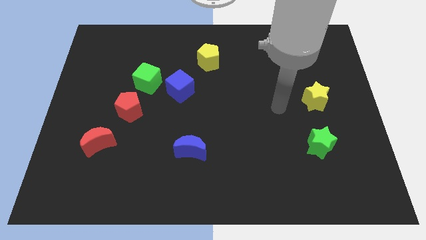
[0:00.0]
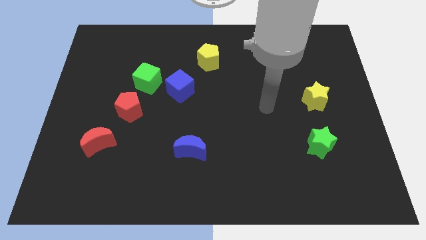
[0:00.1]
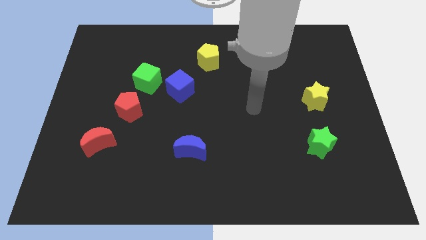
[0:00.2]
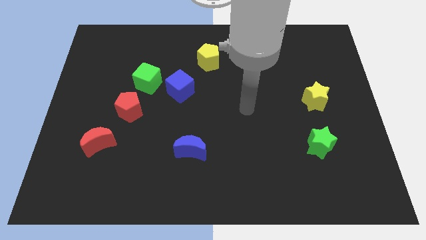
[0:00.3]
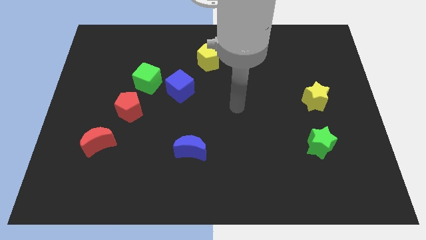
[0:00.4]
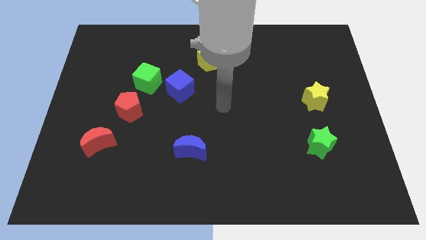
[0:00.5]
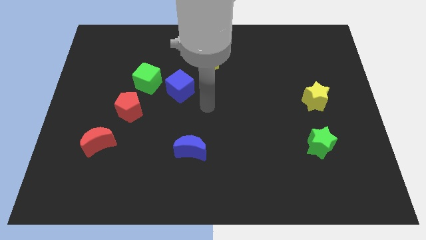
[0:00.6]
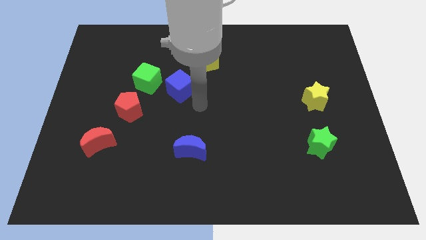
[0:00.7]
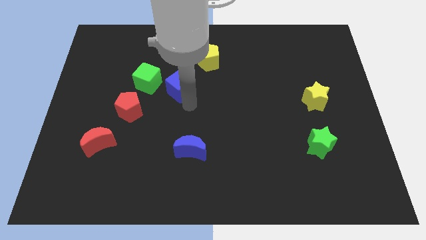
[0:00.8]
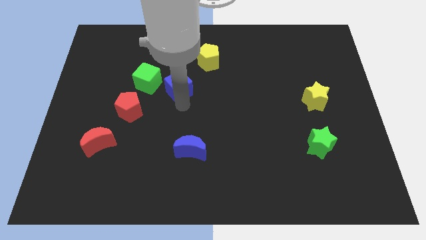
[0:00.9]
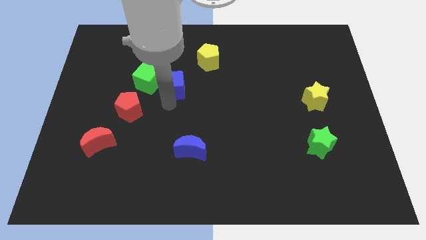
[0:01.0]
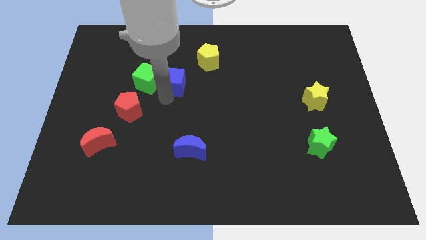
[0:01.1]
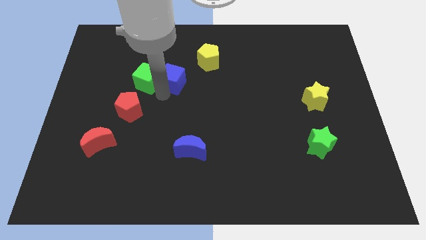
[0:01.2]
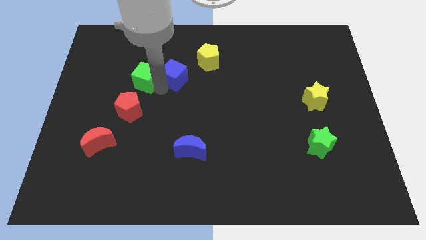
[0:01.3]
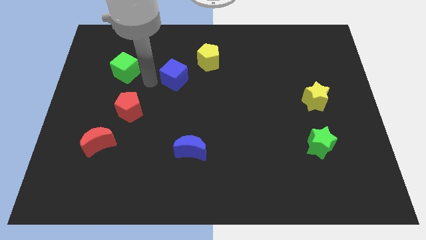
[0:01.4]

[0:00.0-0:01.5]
separate the blue cube from the green cube

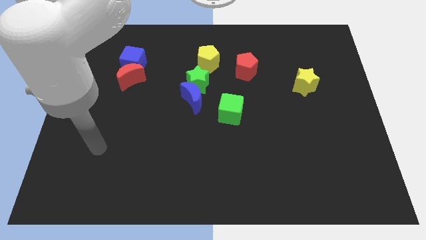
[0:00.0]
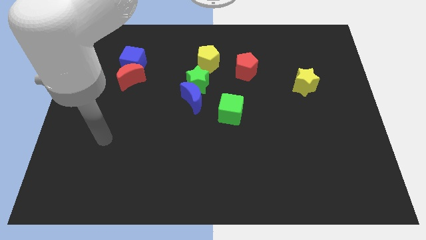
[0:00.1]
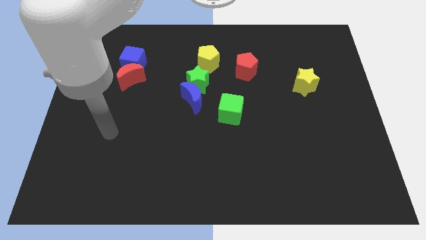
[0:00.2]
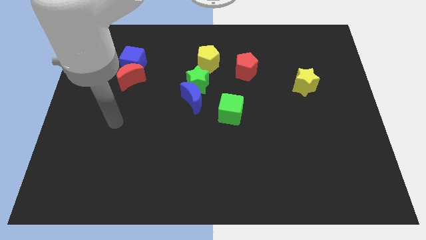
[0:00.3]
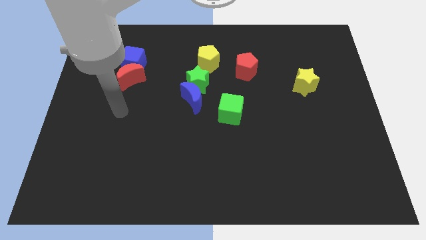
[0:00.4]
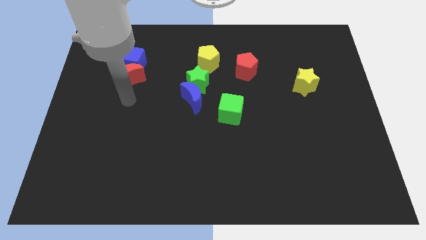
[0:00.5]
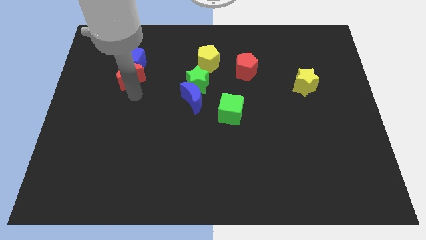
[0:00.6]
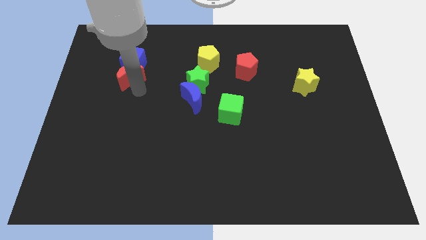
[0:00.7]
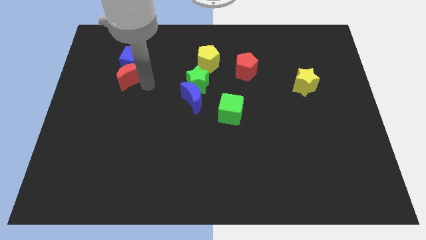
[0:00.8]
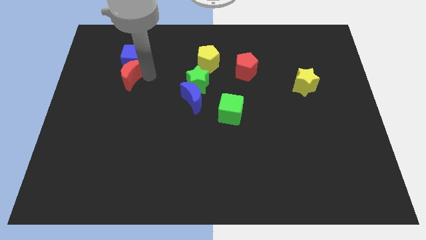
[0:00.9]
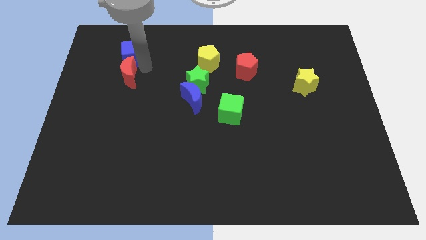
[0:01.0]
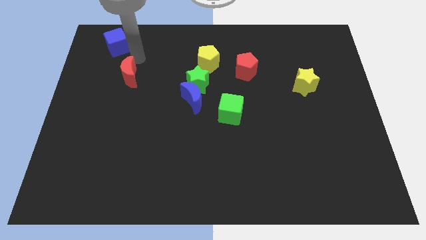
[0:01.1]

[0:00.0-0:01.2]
separate the red moon from the blue cube

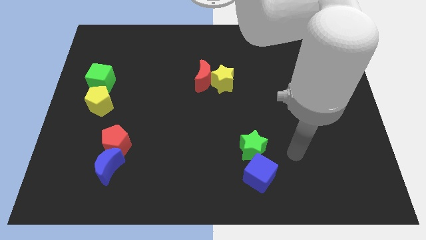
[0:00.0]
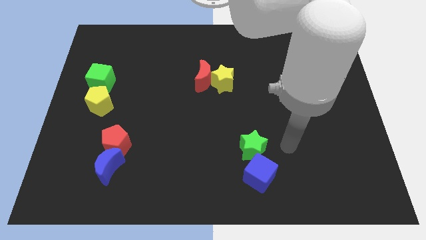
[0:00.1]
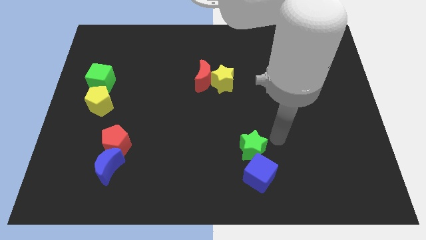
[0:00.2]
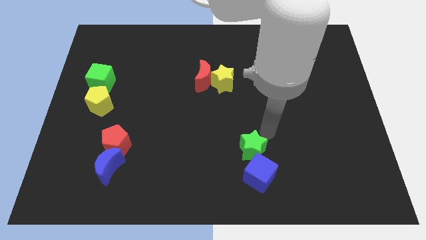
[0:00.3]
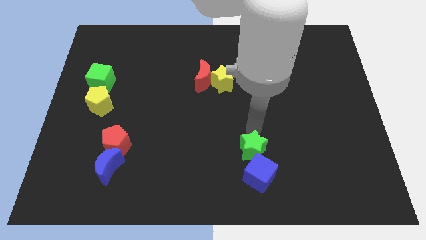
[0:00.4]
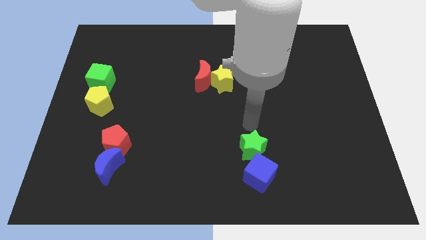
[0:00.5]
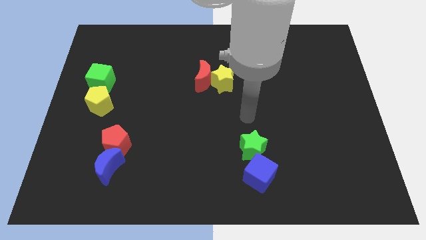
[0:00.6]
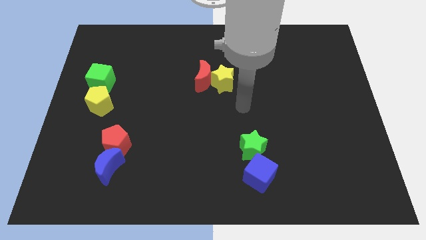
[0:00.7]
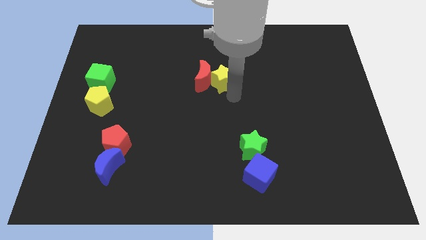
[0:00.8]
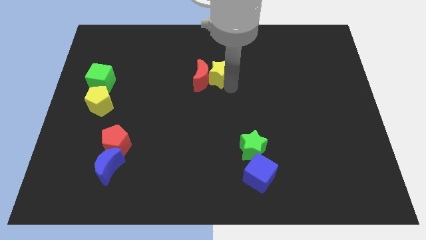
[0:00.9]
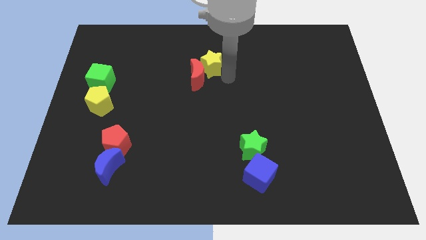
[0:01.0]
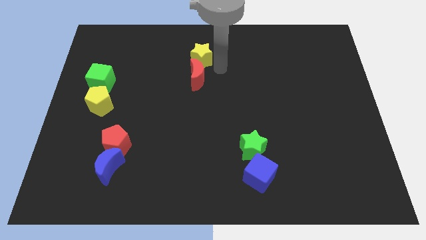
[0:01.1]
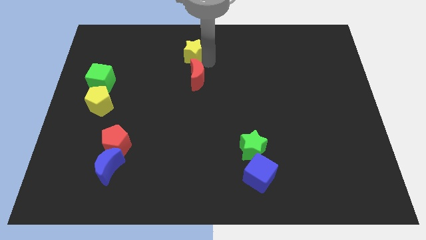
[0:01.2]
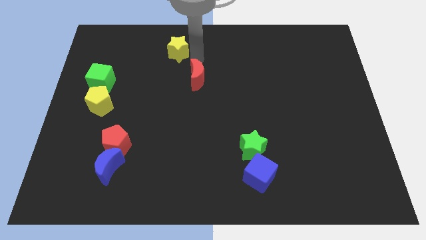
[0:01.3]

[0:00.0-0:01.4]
separate the red moon from the yellow star

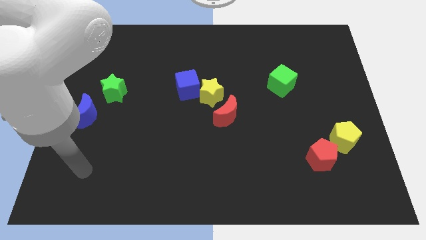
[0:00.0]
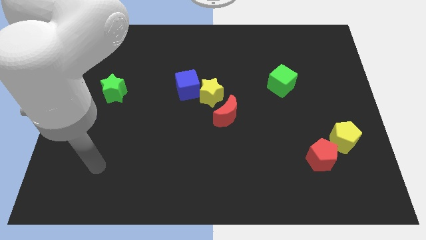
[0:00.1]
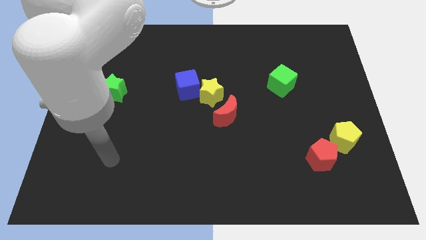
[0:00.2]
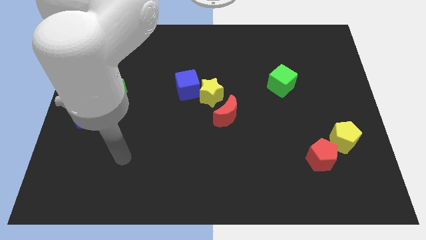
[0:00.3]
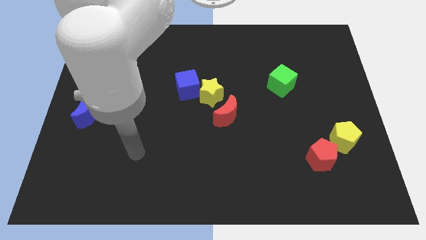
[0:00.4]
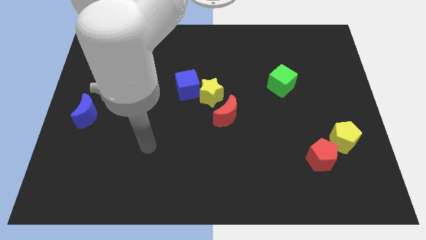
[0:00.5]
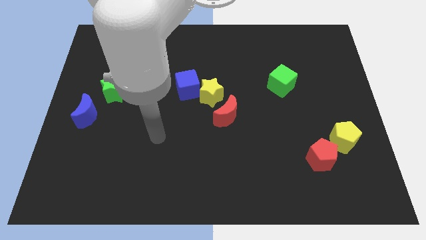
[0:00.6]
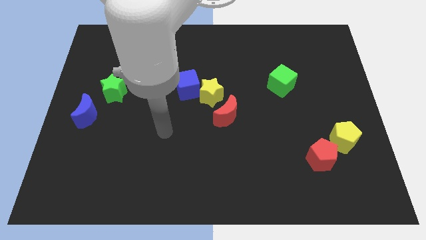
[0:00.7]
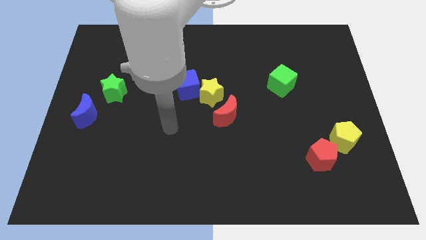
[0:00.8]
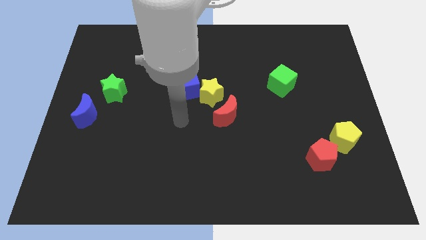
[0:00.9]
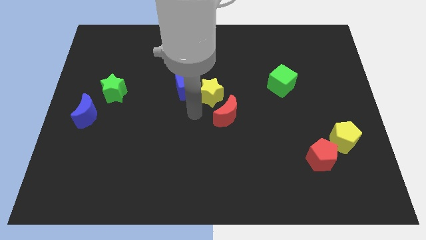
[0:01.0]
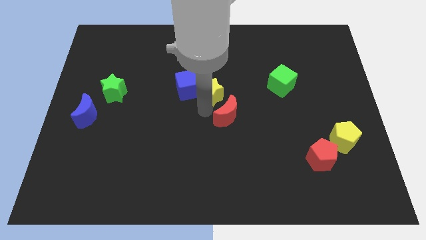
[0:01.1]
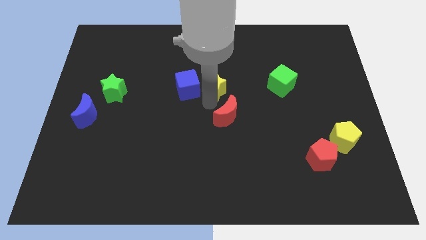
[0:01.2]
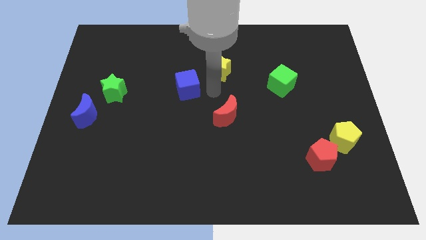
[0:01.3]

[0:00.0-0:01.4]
move the blue cube away from the yellow star

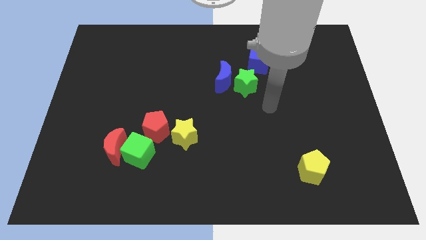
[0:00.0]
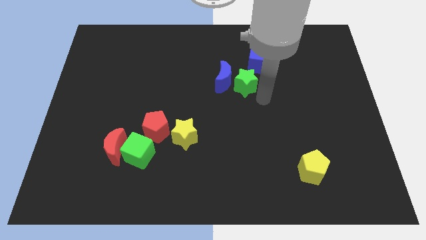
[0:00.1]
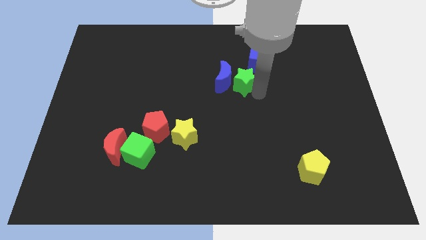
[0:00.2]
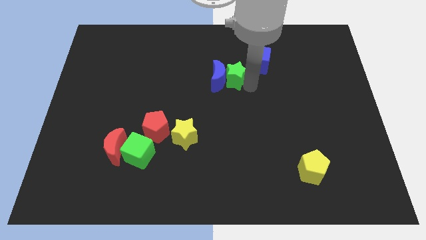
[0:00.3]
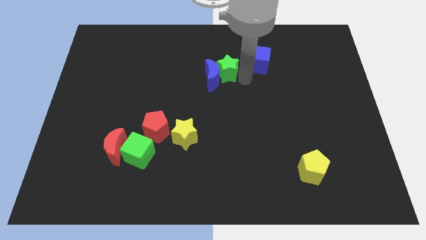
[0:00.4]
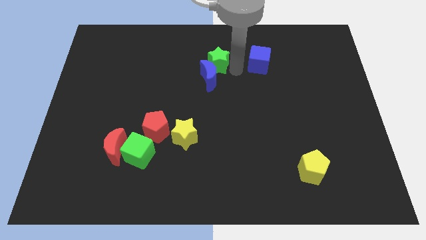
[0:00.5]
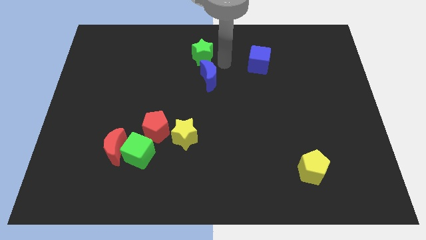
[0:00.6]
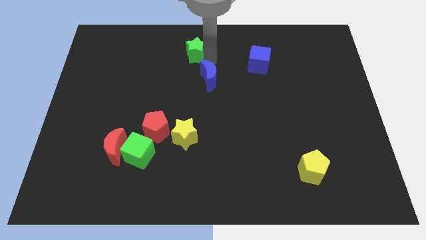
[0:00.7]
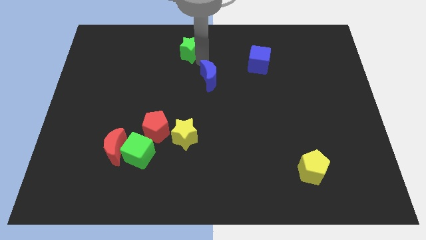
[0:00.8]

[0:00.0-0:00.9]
separate the blue moon from the green star

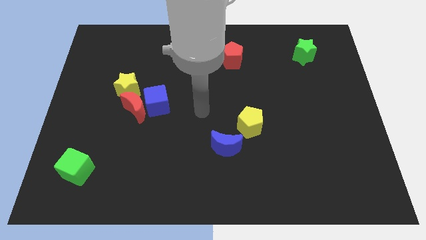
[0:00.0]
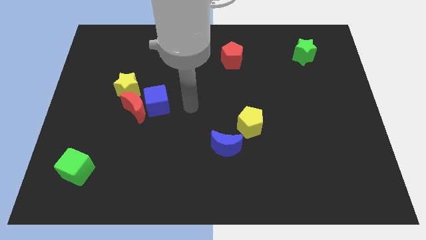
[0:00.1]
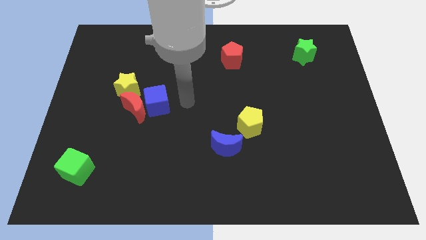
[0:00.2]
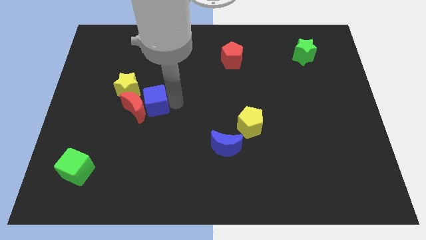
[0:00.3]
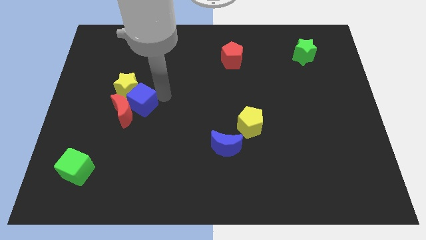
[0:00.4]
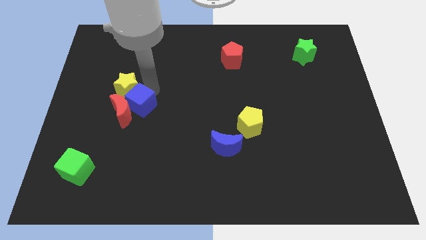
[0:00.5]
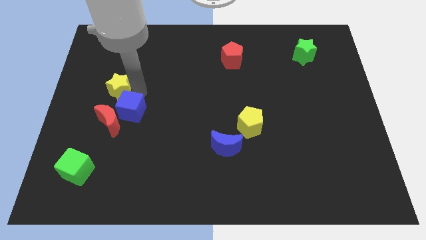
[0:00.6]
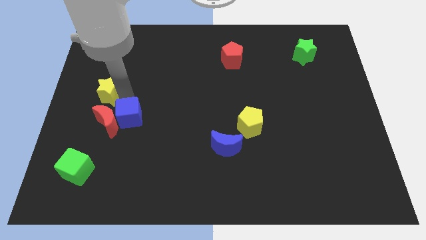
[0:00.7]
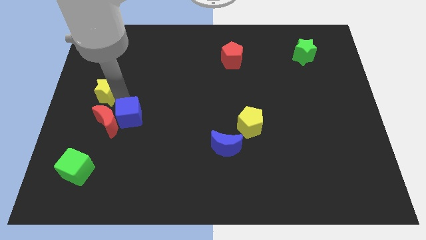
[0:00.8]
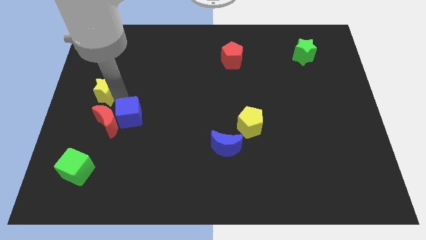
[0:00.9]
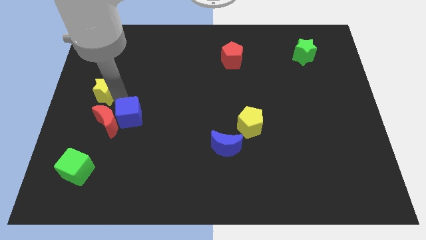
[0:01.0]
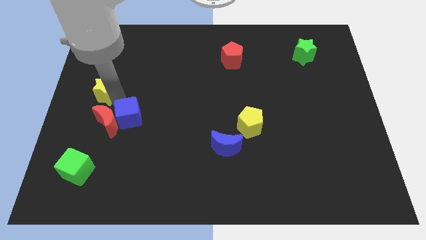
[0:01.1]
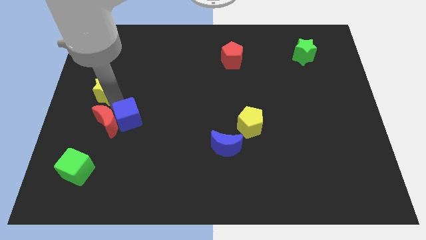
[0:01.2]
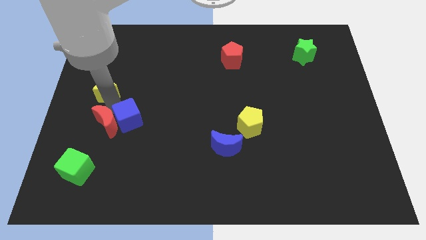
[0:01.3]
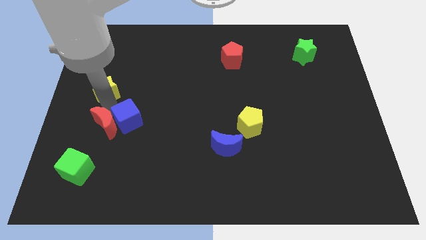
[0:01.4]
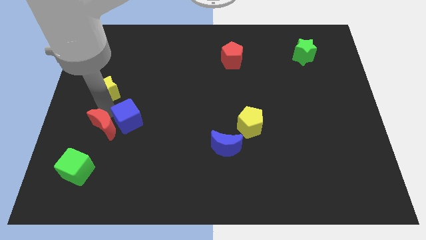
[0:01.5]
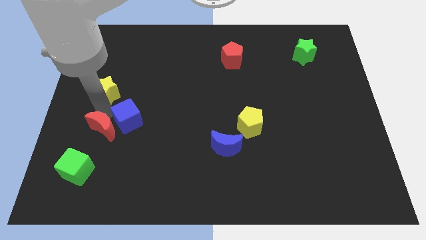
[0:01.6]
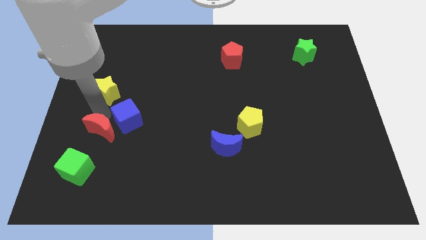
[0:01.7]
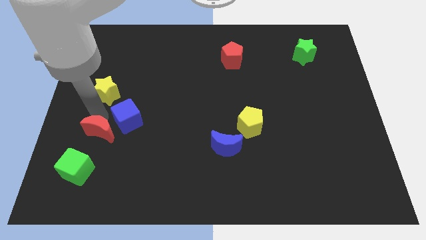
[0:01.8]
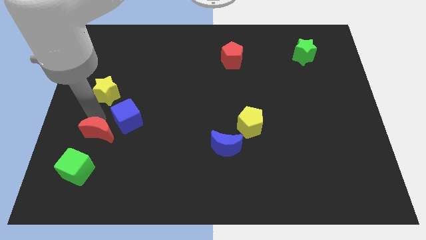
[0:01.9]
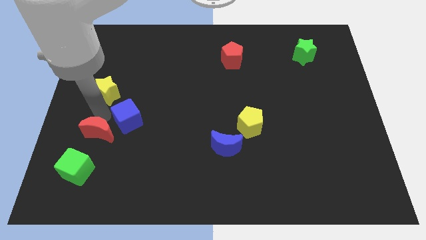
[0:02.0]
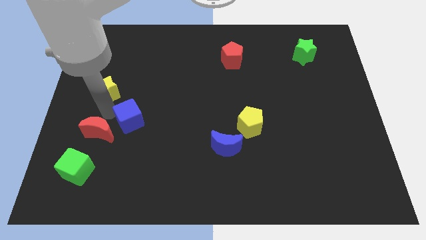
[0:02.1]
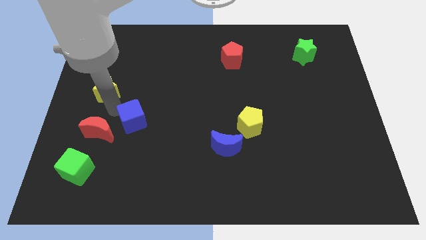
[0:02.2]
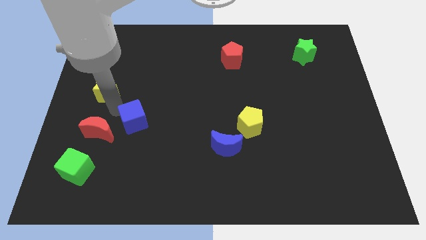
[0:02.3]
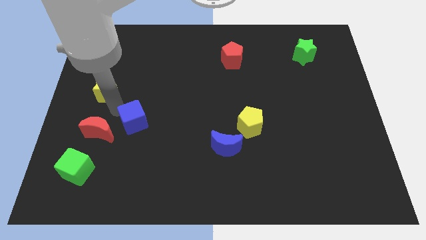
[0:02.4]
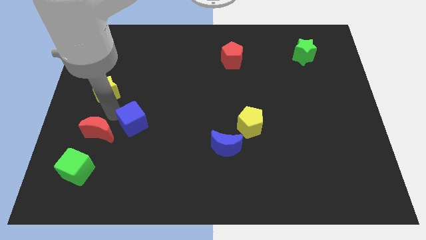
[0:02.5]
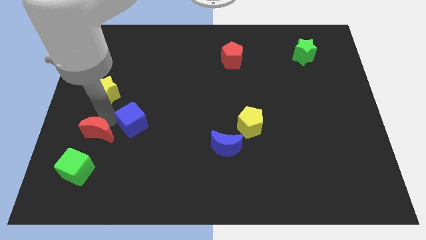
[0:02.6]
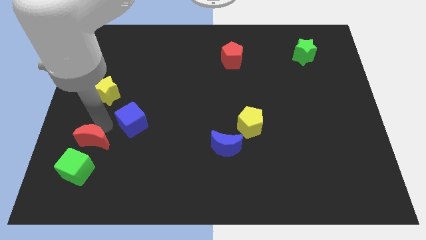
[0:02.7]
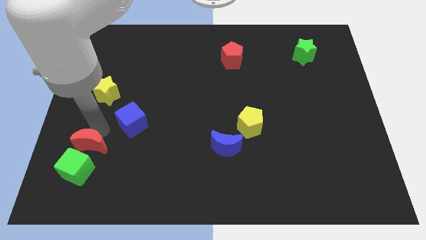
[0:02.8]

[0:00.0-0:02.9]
pull the red moon apart from the blue cube and yellow star
